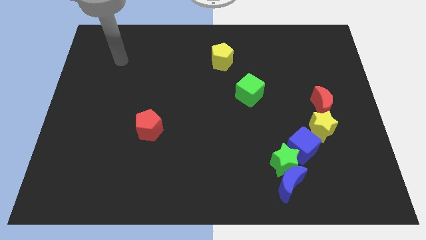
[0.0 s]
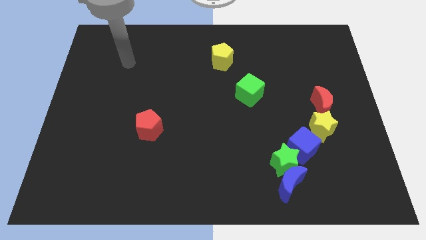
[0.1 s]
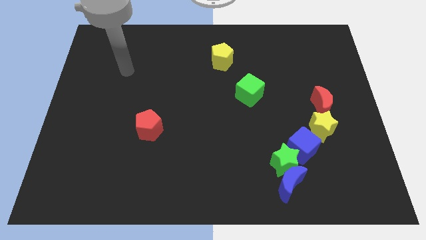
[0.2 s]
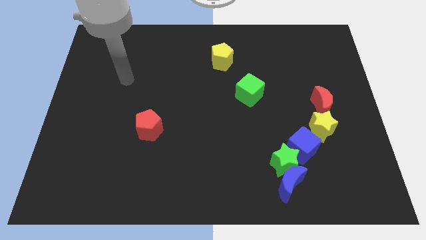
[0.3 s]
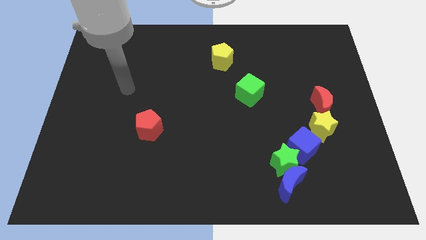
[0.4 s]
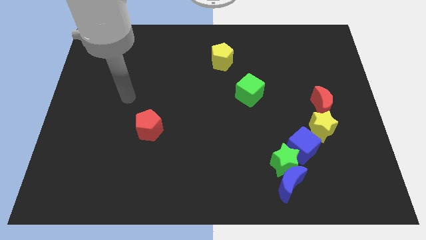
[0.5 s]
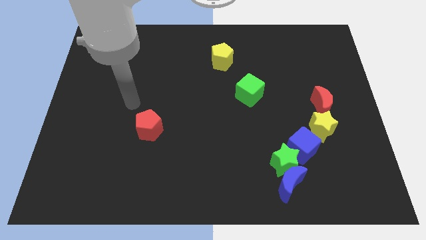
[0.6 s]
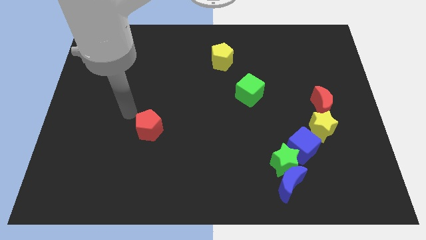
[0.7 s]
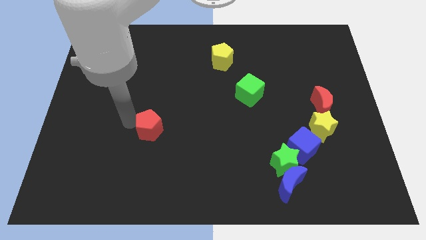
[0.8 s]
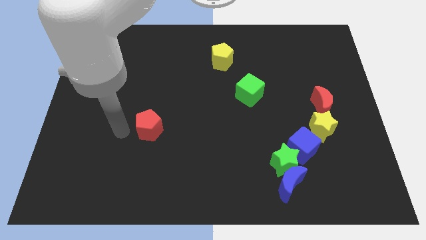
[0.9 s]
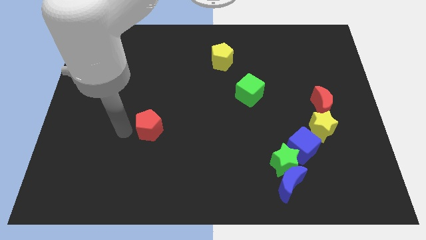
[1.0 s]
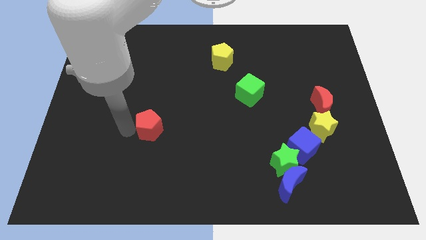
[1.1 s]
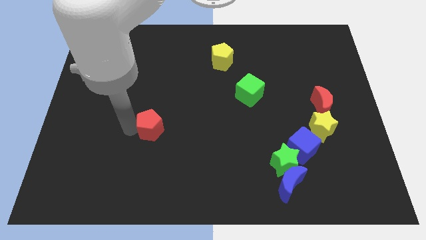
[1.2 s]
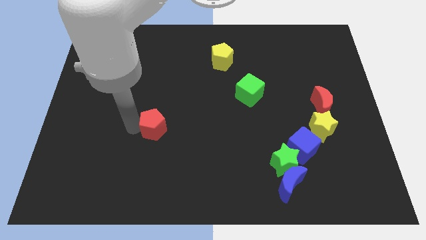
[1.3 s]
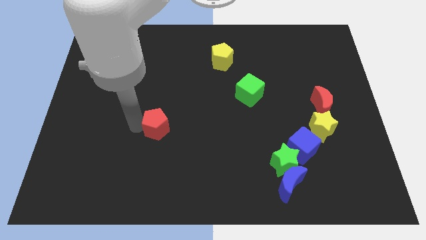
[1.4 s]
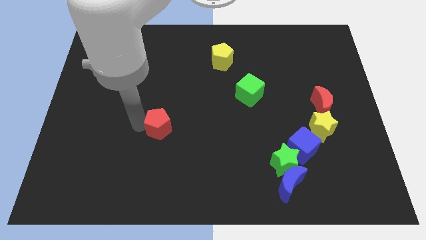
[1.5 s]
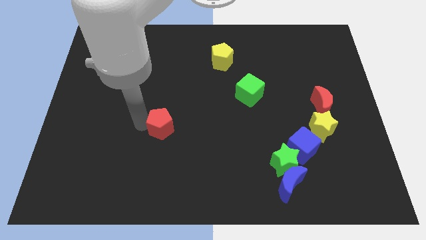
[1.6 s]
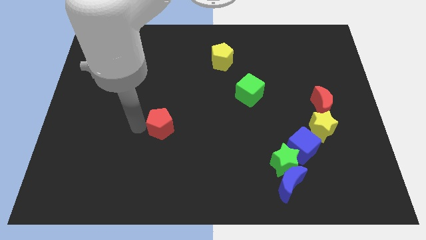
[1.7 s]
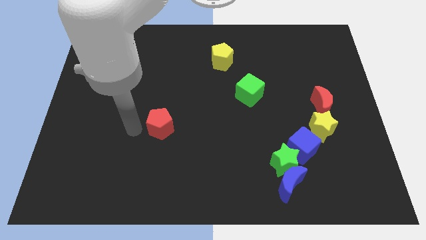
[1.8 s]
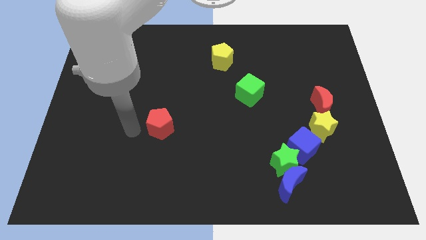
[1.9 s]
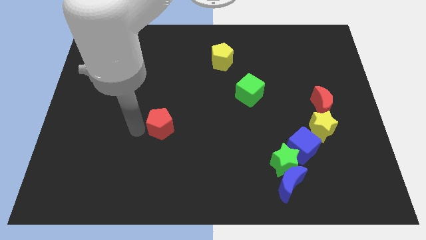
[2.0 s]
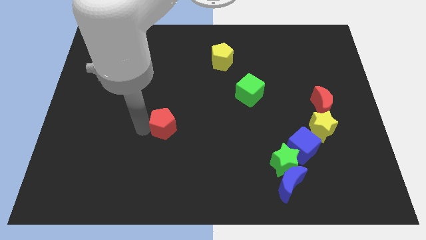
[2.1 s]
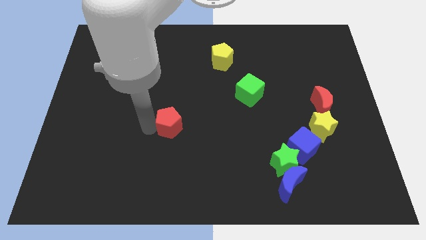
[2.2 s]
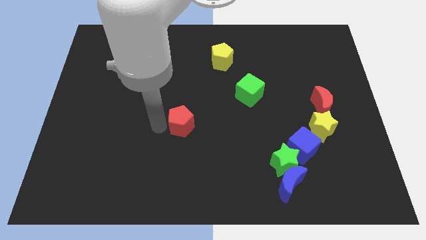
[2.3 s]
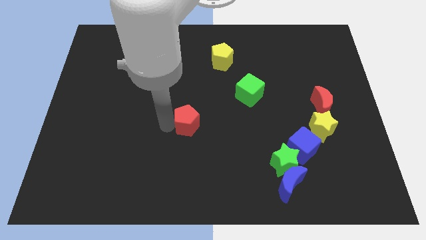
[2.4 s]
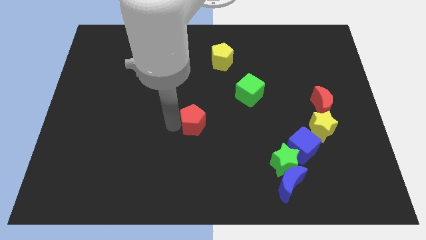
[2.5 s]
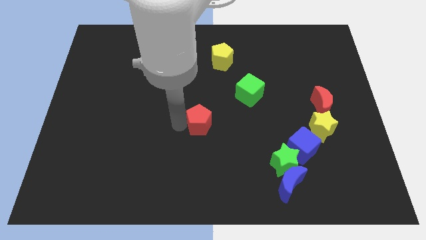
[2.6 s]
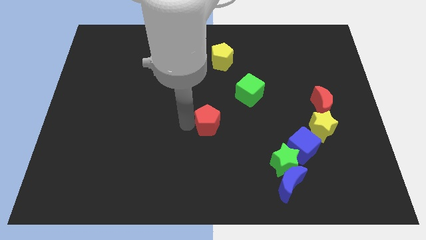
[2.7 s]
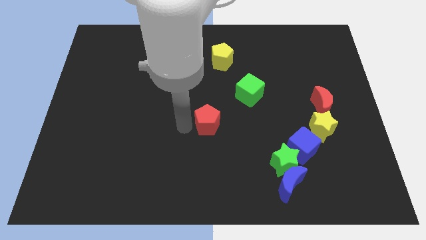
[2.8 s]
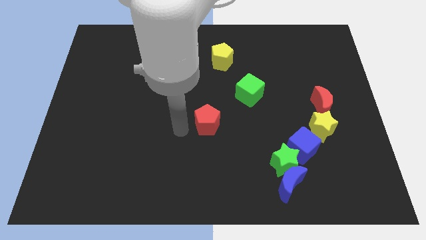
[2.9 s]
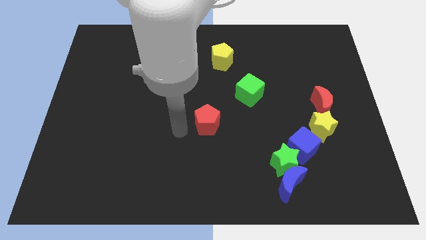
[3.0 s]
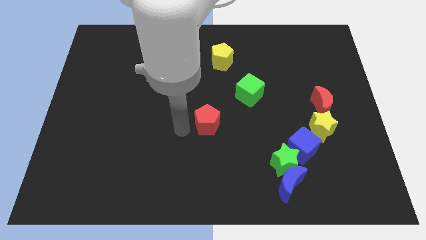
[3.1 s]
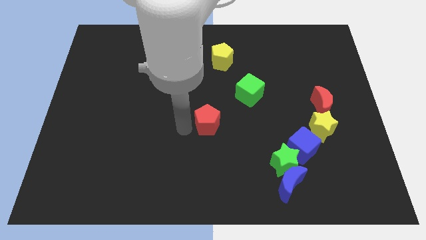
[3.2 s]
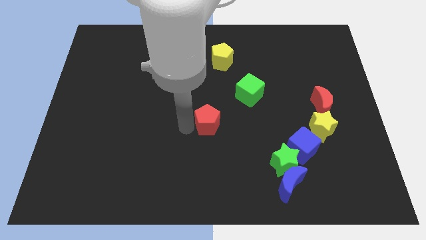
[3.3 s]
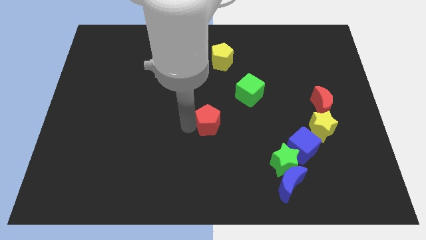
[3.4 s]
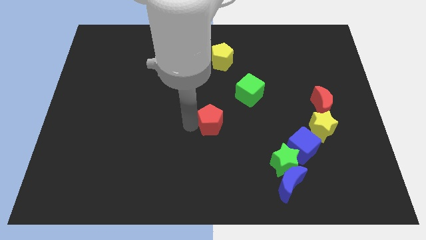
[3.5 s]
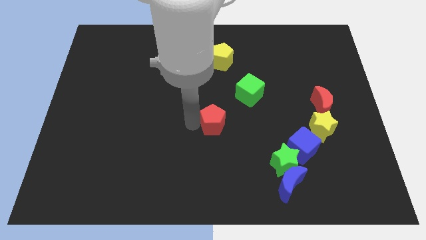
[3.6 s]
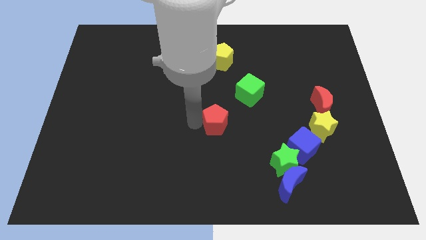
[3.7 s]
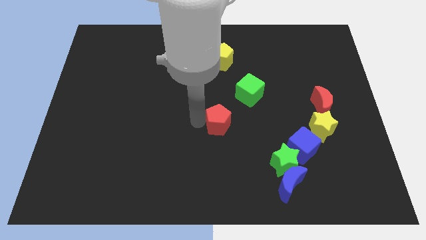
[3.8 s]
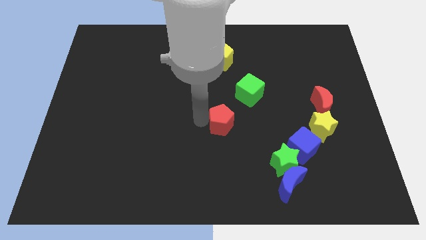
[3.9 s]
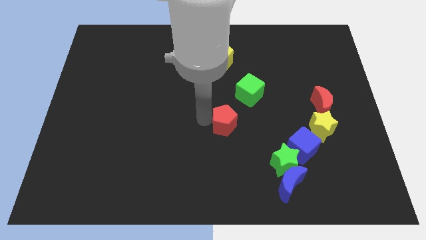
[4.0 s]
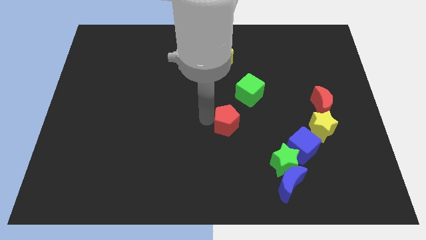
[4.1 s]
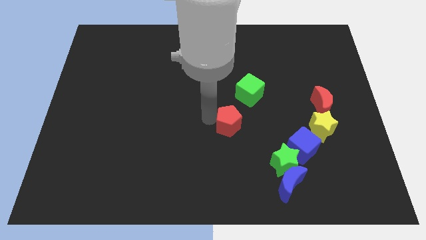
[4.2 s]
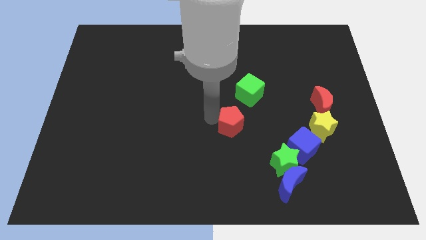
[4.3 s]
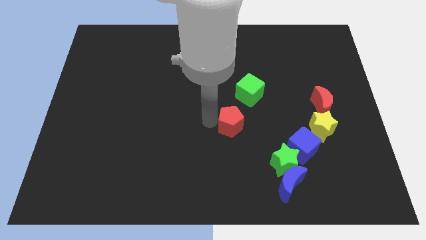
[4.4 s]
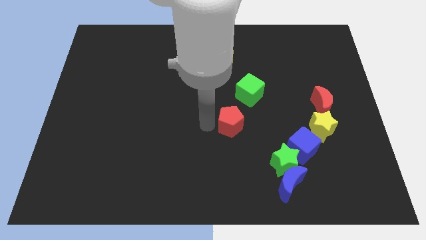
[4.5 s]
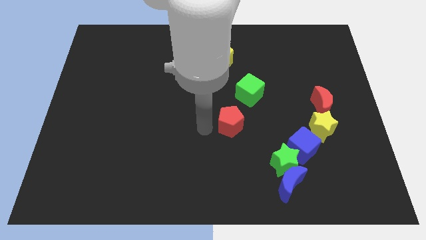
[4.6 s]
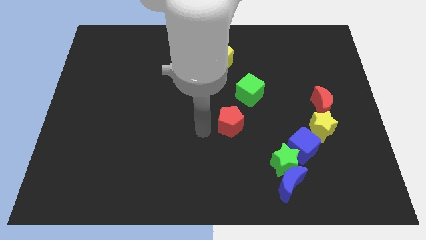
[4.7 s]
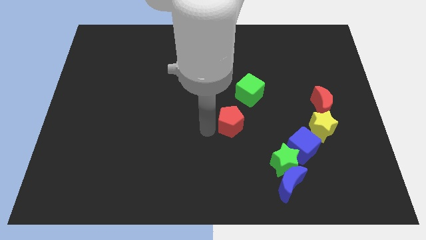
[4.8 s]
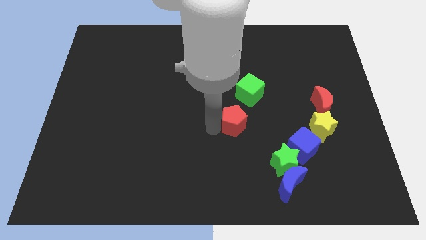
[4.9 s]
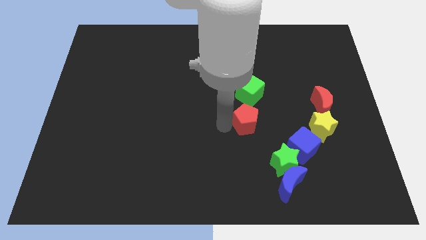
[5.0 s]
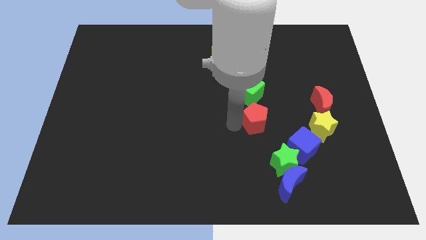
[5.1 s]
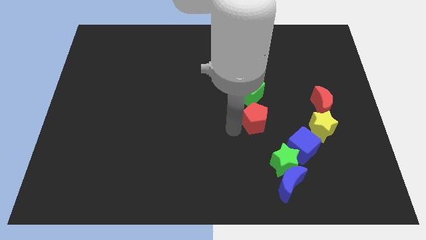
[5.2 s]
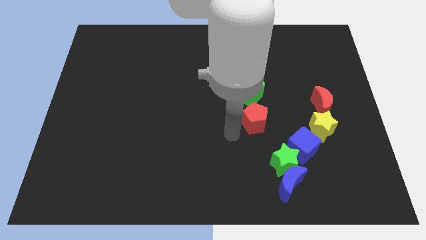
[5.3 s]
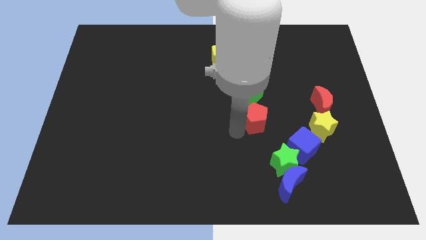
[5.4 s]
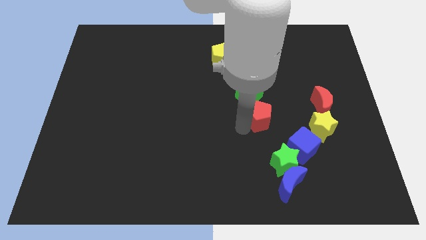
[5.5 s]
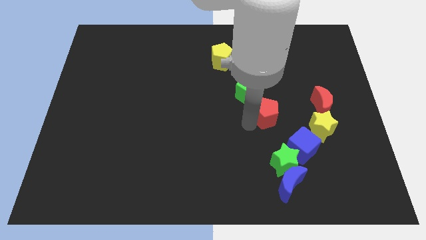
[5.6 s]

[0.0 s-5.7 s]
move the red pentagon to the left of the red moon

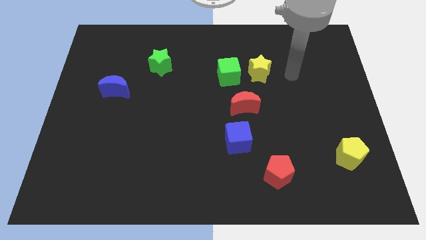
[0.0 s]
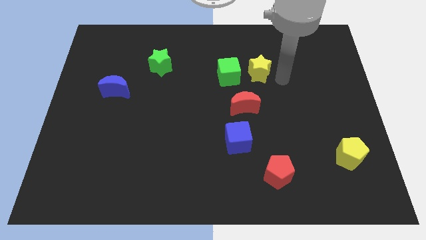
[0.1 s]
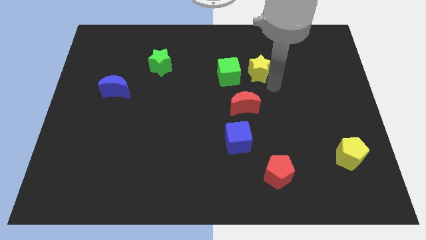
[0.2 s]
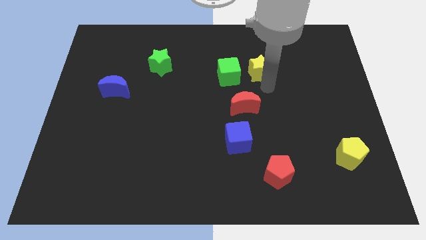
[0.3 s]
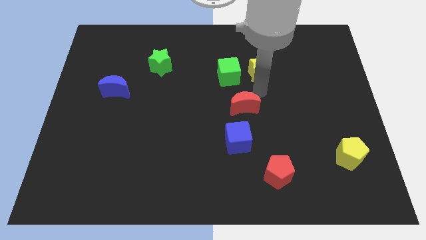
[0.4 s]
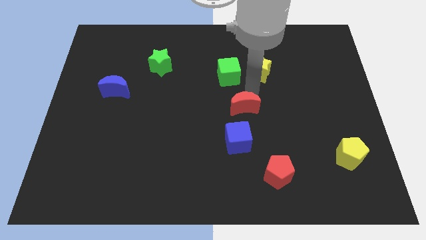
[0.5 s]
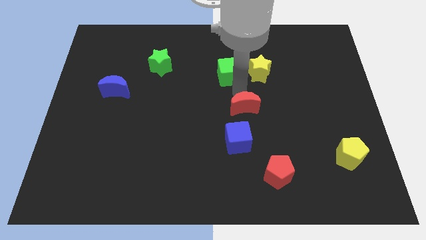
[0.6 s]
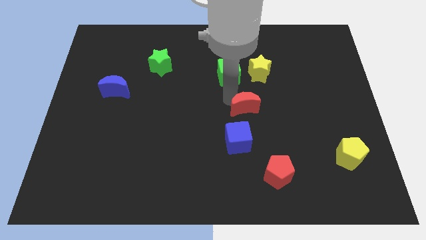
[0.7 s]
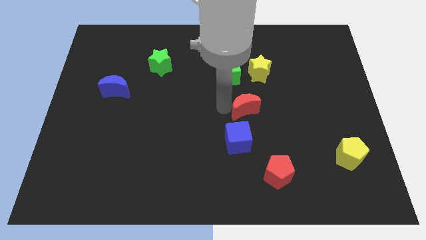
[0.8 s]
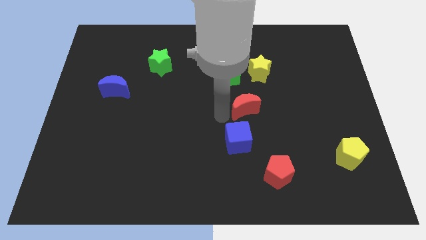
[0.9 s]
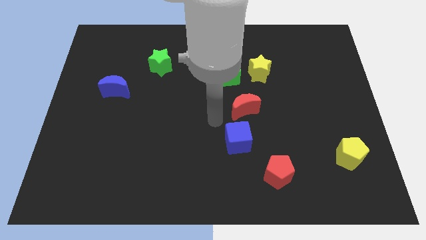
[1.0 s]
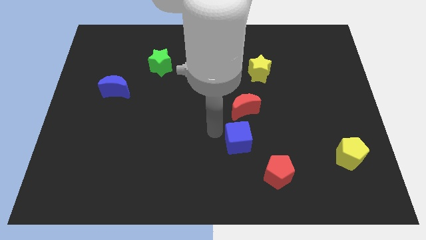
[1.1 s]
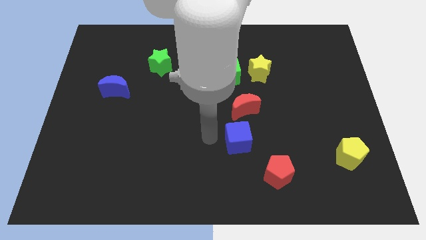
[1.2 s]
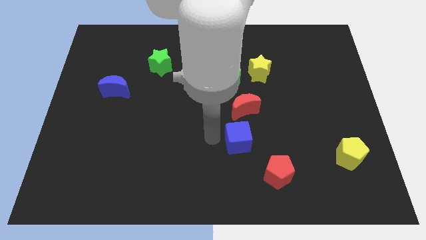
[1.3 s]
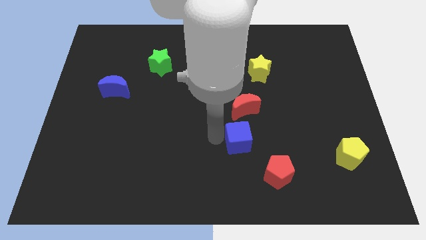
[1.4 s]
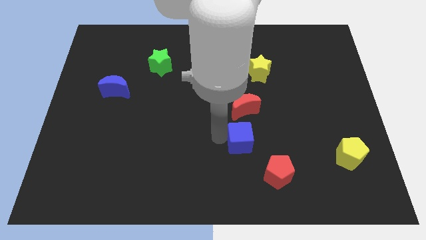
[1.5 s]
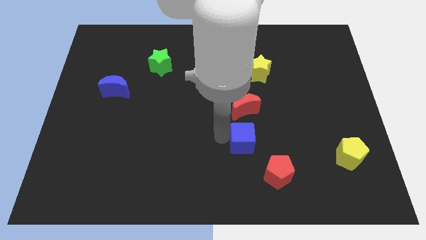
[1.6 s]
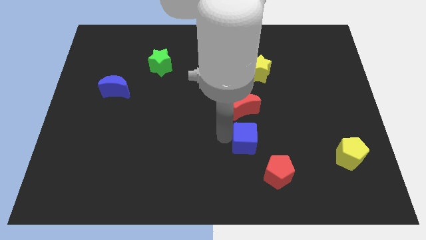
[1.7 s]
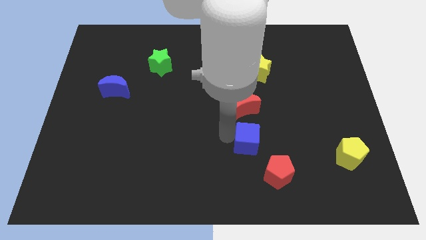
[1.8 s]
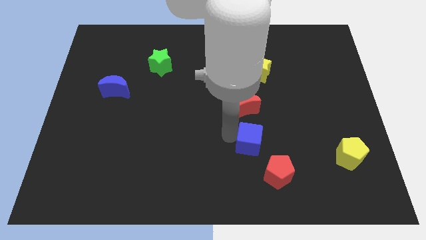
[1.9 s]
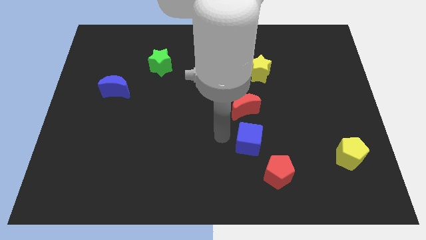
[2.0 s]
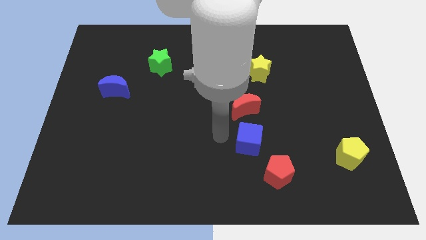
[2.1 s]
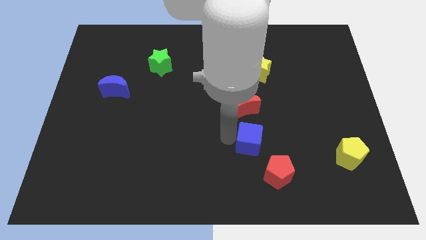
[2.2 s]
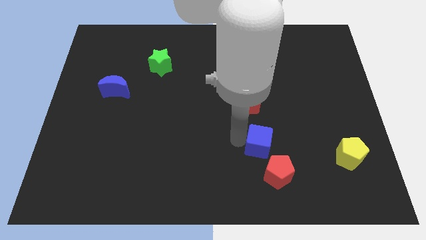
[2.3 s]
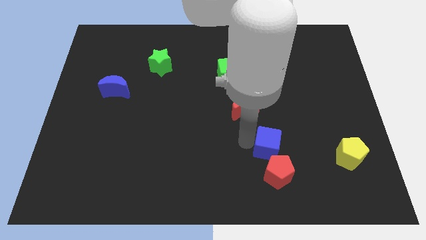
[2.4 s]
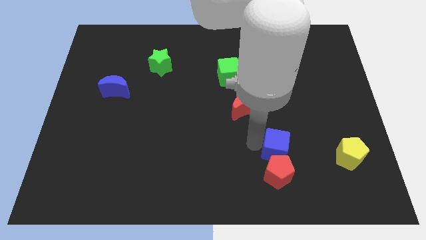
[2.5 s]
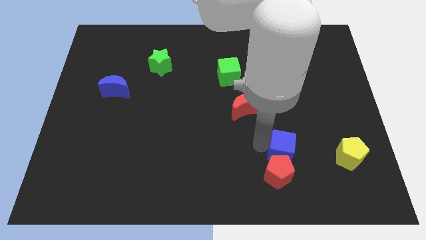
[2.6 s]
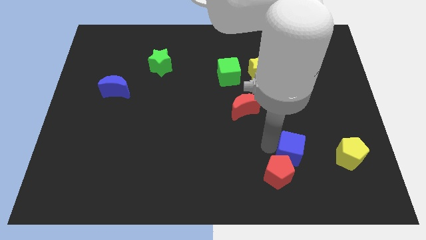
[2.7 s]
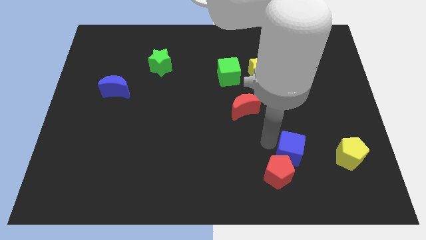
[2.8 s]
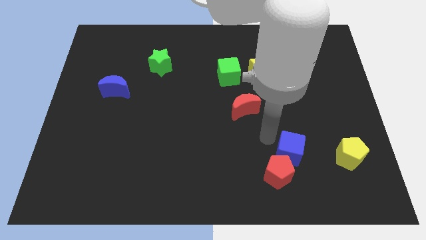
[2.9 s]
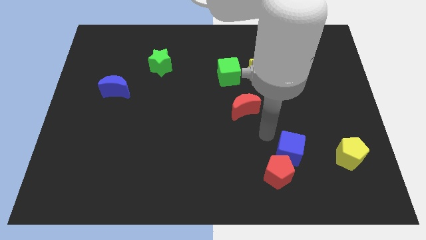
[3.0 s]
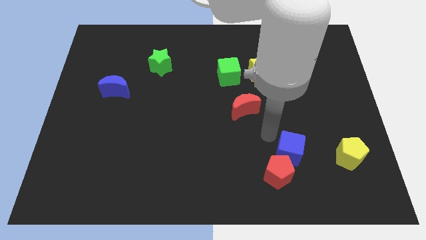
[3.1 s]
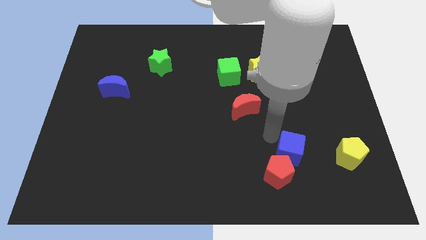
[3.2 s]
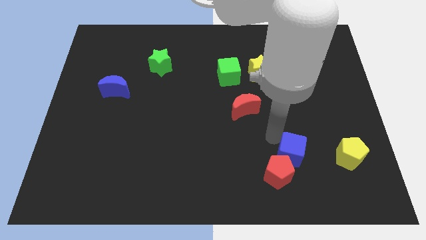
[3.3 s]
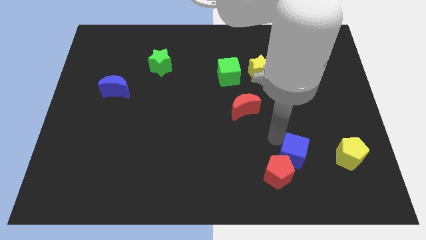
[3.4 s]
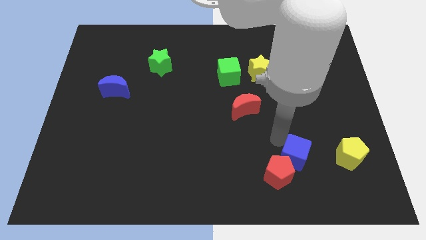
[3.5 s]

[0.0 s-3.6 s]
move the blue cube just right of the red pentagon
